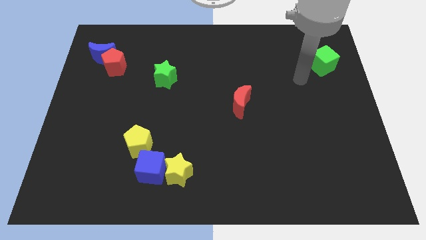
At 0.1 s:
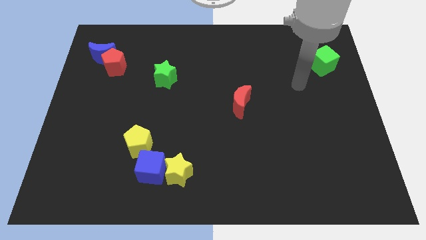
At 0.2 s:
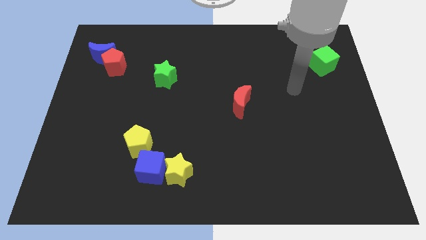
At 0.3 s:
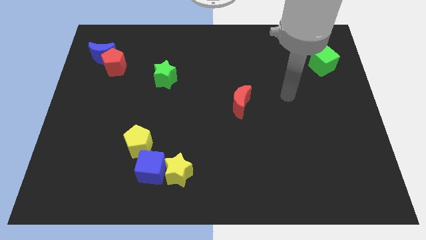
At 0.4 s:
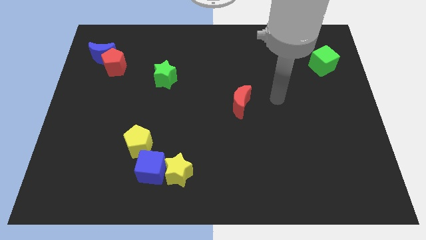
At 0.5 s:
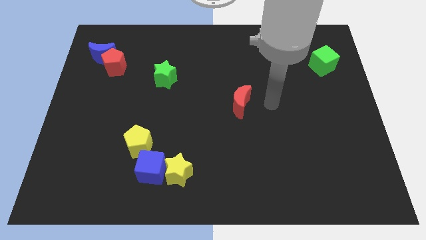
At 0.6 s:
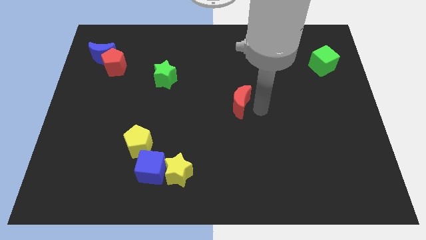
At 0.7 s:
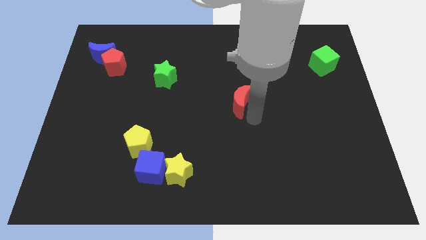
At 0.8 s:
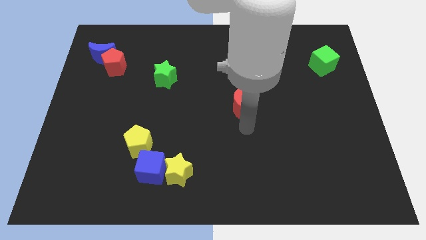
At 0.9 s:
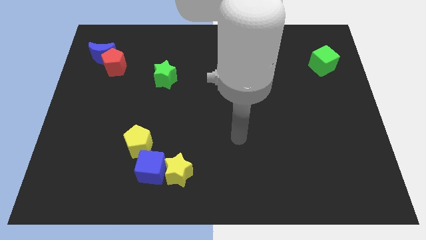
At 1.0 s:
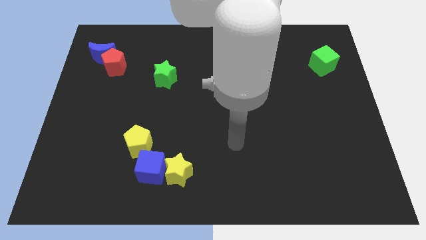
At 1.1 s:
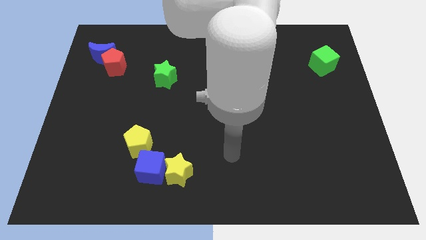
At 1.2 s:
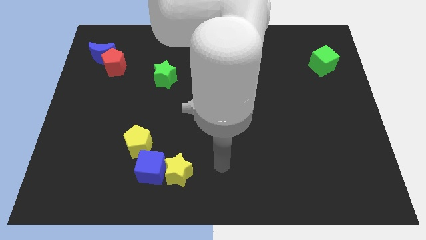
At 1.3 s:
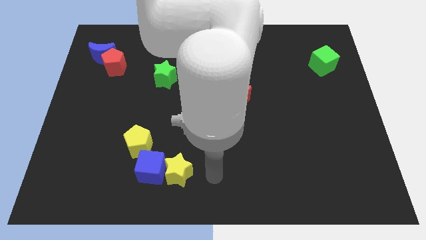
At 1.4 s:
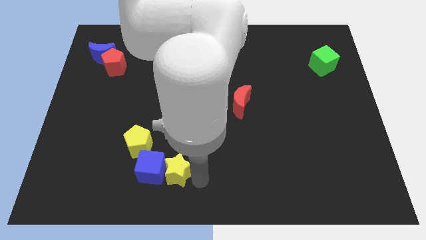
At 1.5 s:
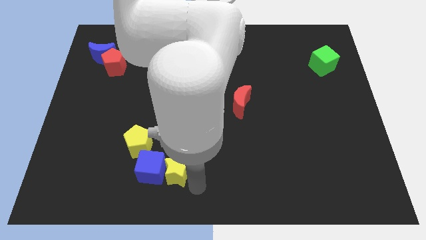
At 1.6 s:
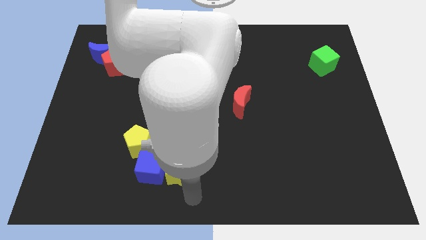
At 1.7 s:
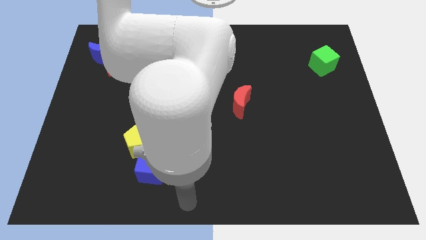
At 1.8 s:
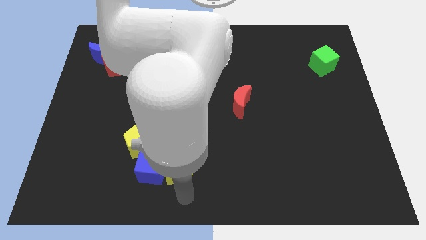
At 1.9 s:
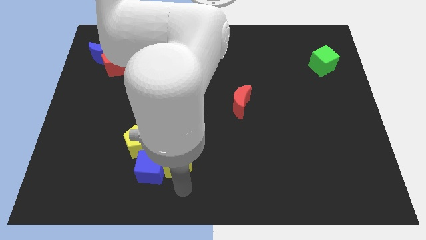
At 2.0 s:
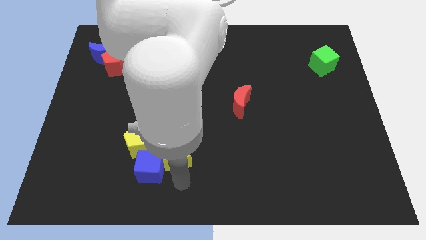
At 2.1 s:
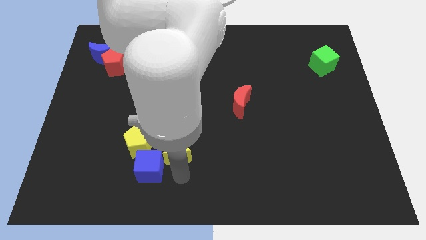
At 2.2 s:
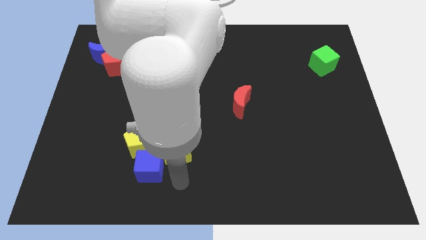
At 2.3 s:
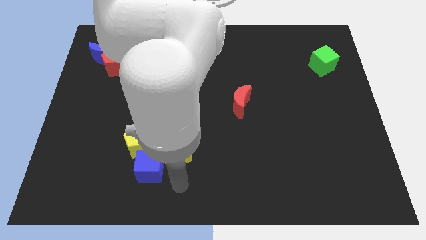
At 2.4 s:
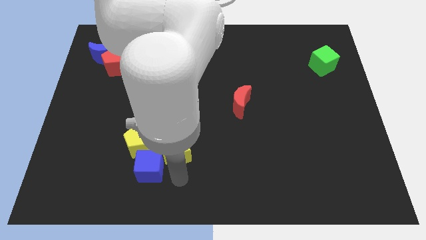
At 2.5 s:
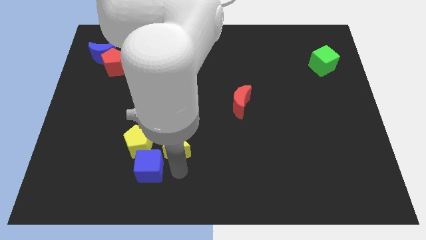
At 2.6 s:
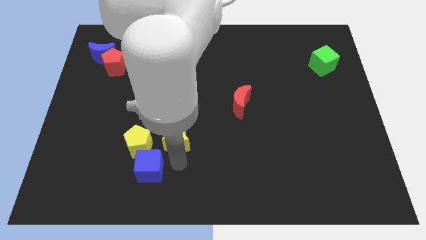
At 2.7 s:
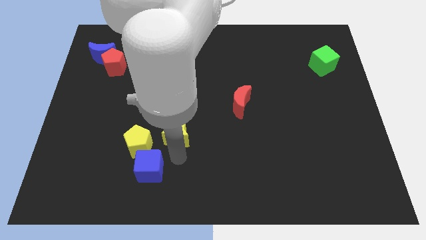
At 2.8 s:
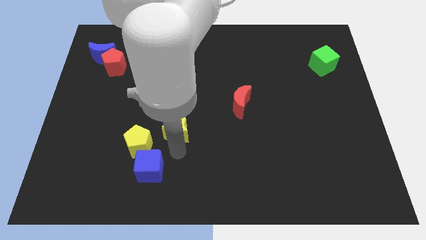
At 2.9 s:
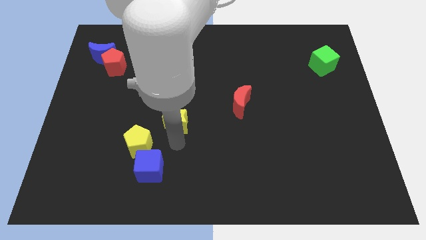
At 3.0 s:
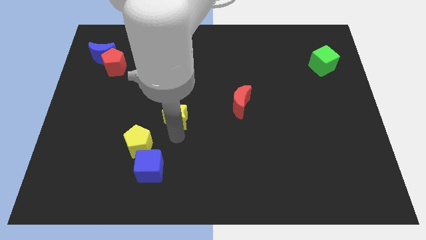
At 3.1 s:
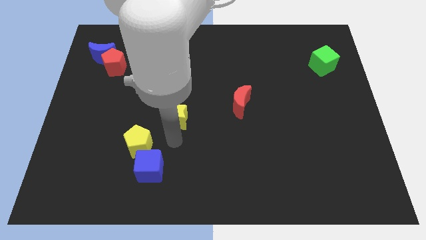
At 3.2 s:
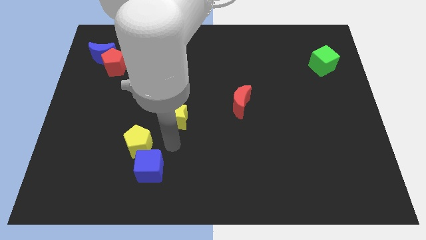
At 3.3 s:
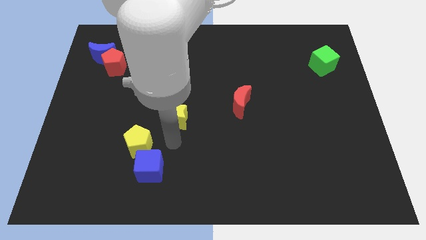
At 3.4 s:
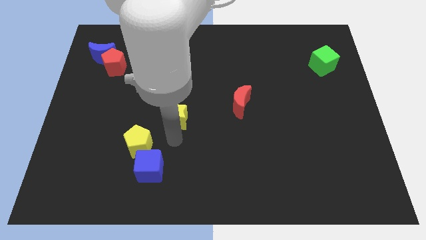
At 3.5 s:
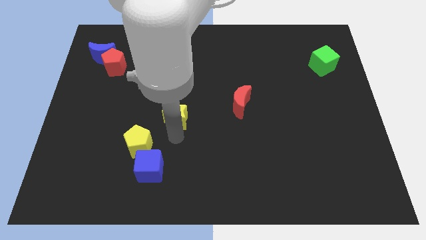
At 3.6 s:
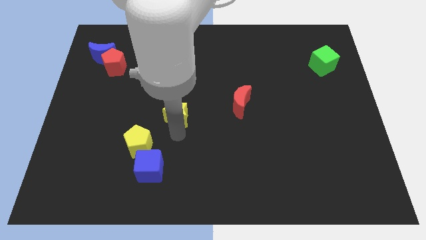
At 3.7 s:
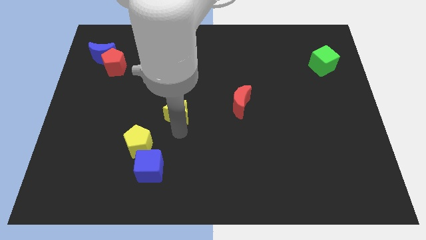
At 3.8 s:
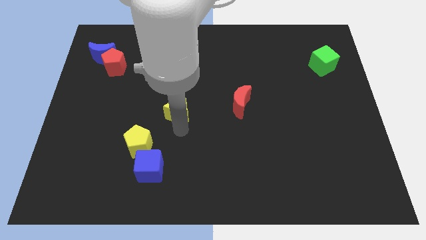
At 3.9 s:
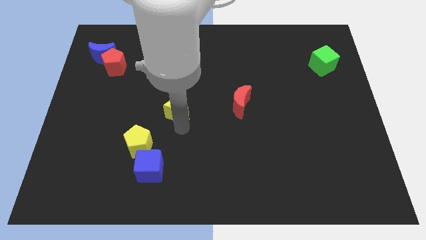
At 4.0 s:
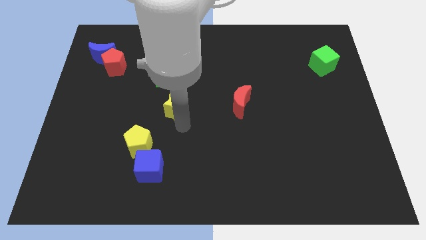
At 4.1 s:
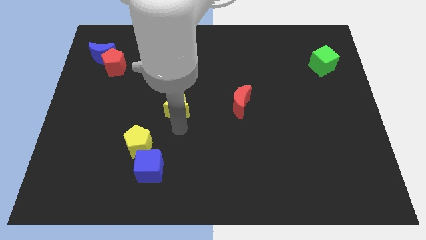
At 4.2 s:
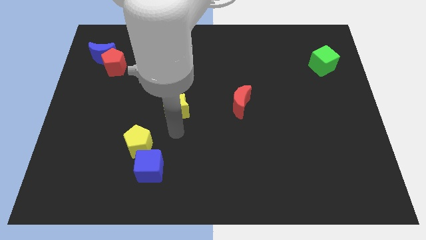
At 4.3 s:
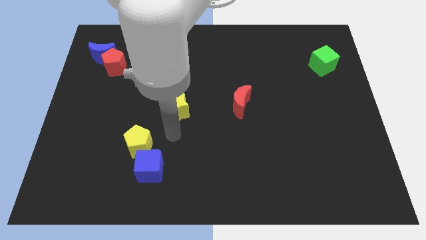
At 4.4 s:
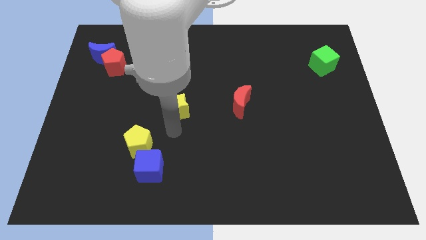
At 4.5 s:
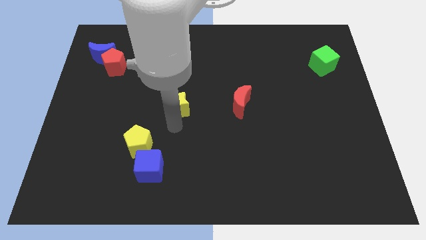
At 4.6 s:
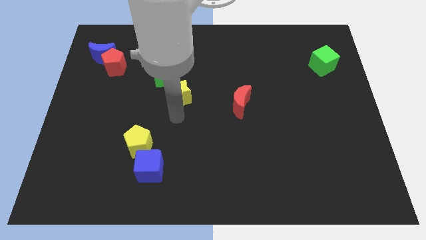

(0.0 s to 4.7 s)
slide the yellow star upwards

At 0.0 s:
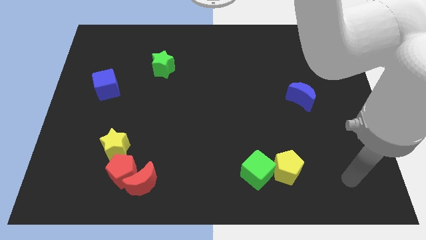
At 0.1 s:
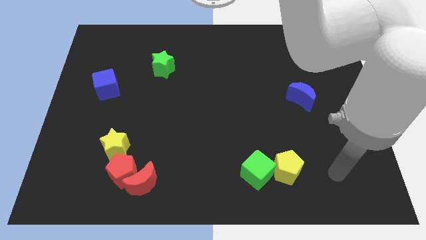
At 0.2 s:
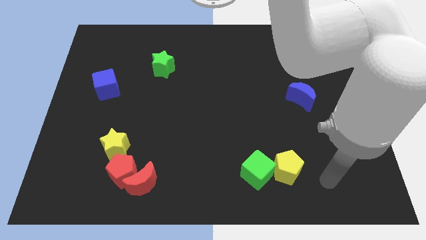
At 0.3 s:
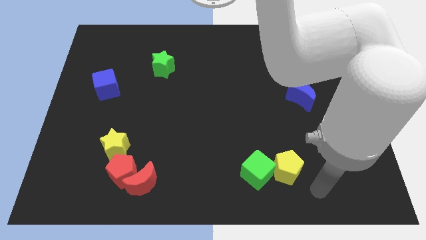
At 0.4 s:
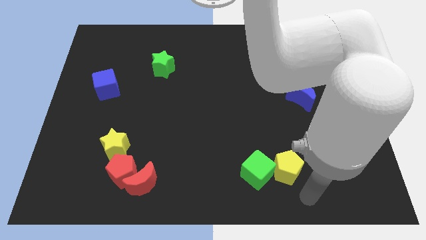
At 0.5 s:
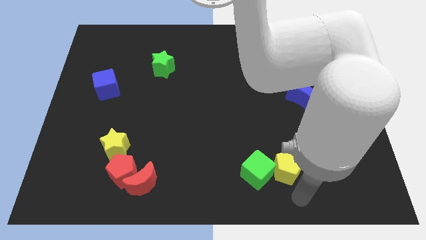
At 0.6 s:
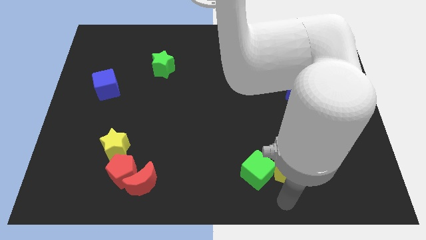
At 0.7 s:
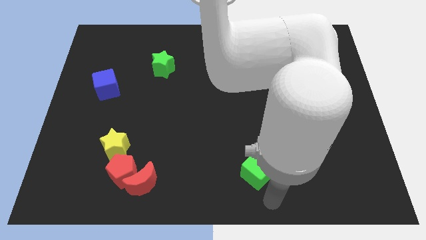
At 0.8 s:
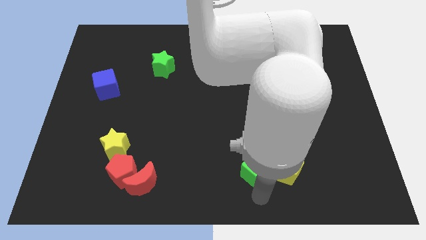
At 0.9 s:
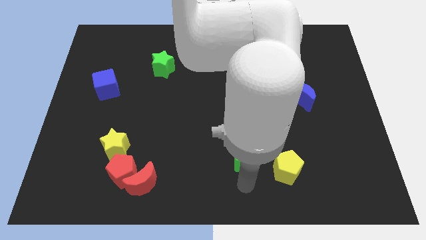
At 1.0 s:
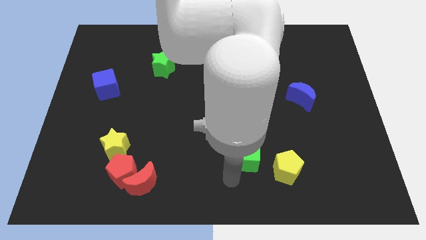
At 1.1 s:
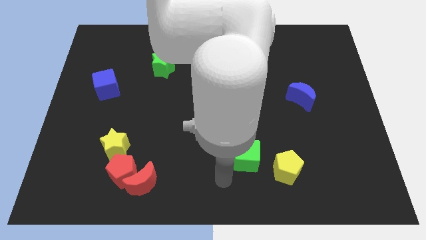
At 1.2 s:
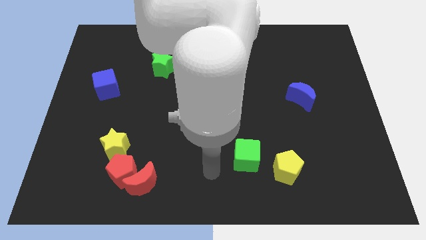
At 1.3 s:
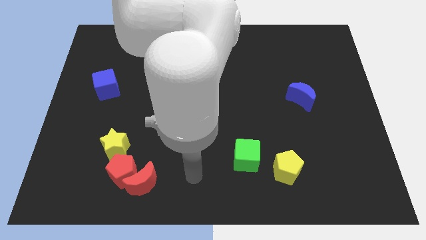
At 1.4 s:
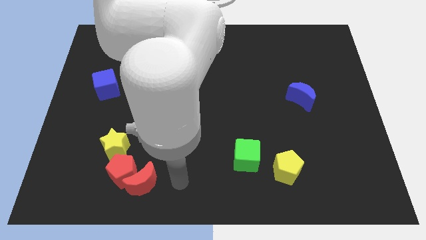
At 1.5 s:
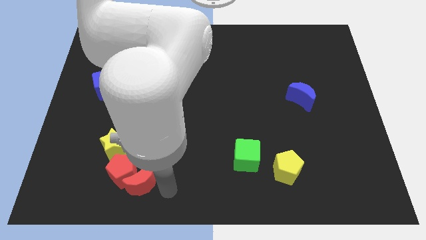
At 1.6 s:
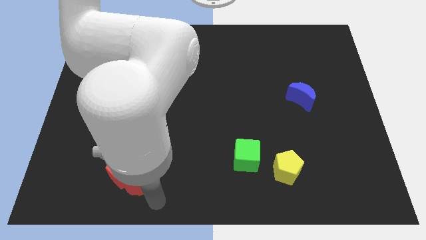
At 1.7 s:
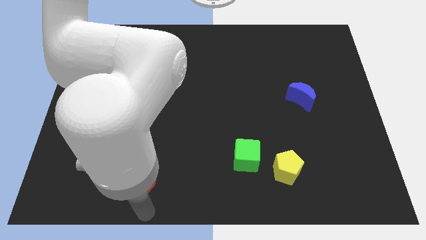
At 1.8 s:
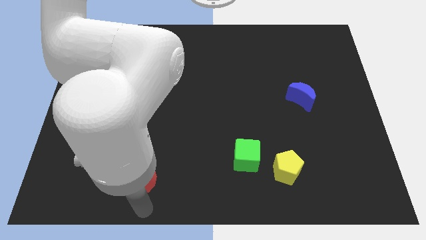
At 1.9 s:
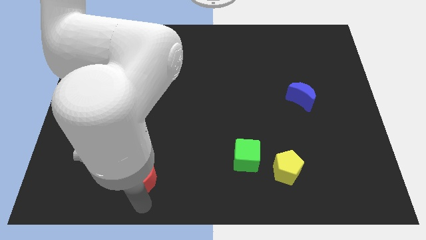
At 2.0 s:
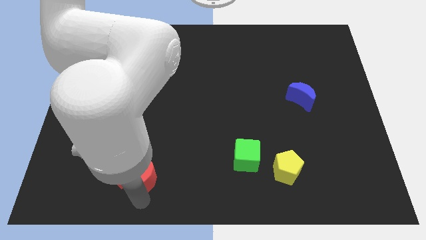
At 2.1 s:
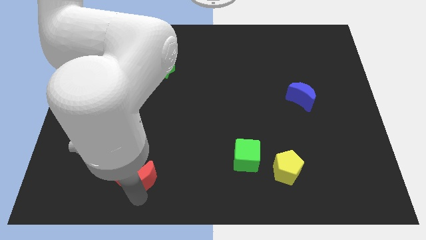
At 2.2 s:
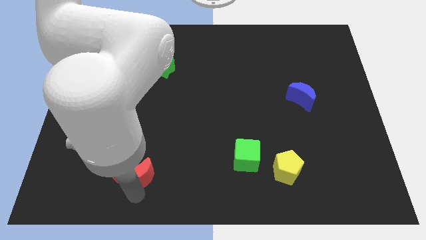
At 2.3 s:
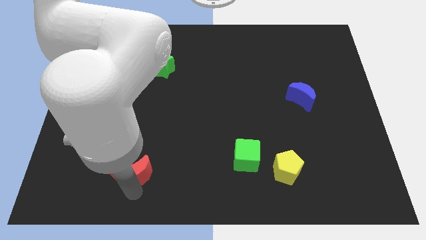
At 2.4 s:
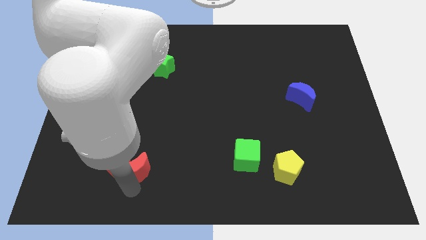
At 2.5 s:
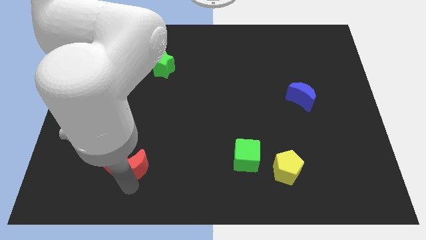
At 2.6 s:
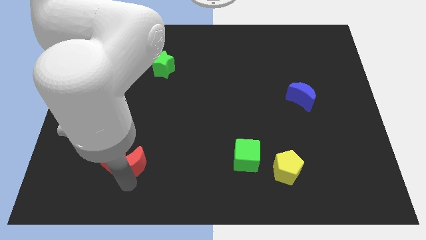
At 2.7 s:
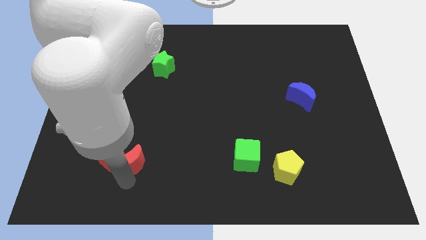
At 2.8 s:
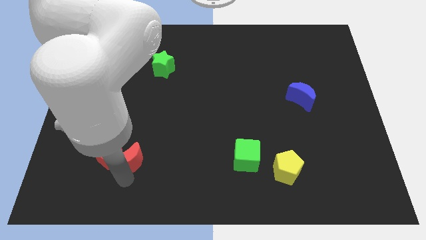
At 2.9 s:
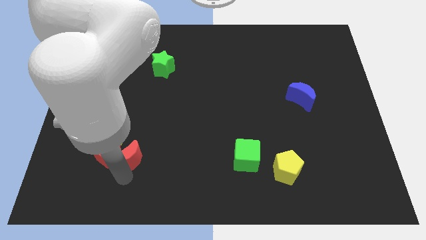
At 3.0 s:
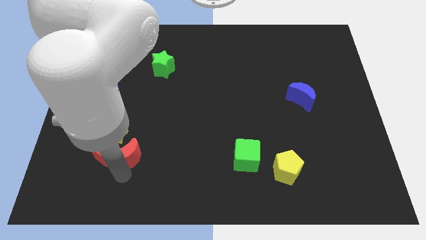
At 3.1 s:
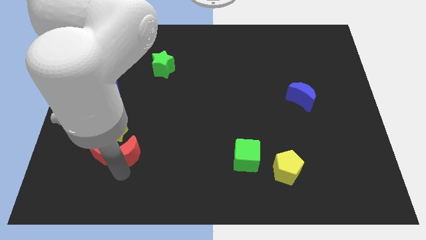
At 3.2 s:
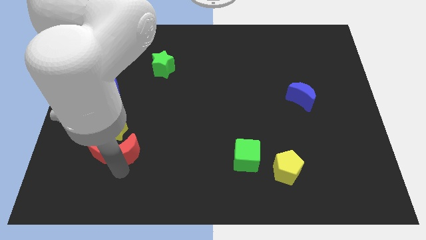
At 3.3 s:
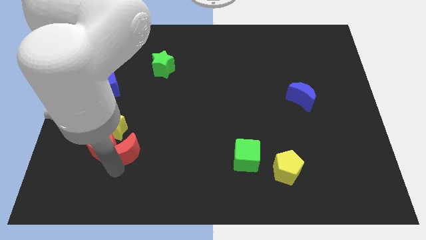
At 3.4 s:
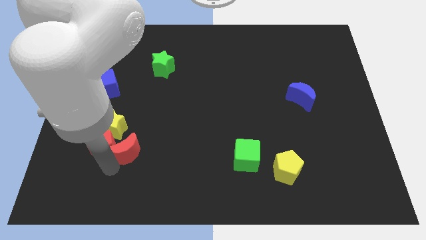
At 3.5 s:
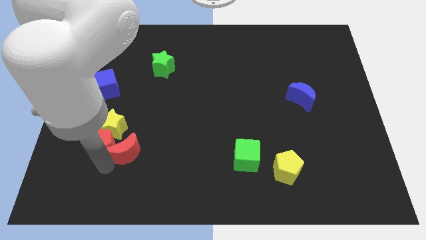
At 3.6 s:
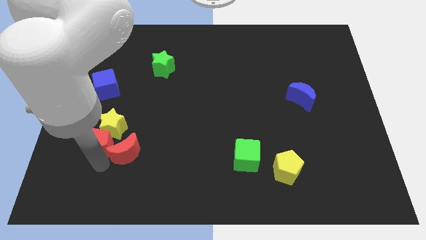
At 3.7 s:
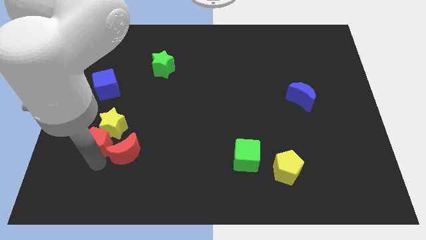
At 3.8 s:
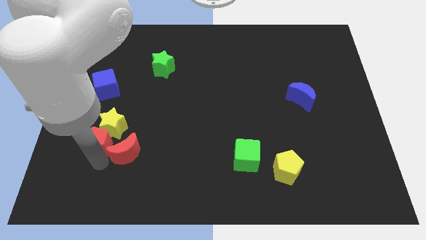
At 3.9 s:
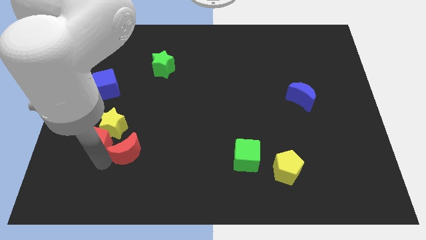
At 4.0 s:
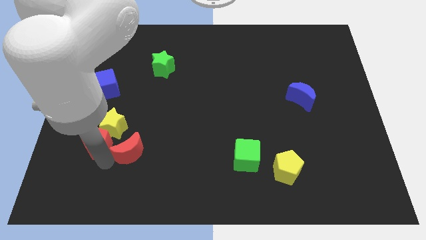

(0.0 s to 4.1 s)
slide the red moon upwards somewhat
